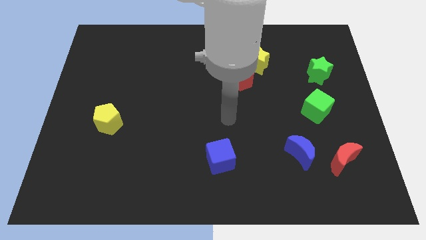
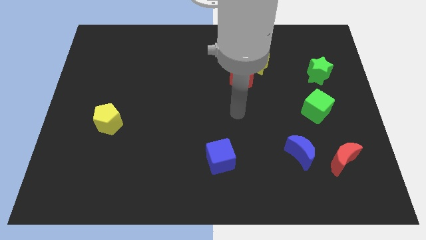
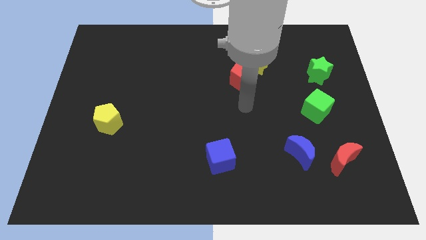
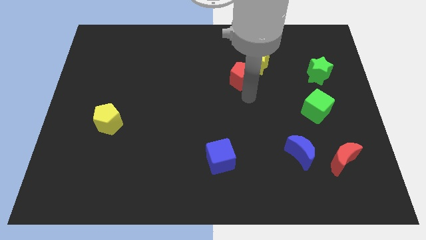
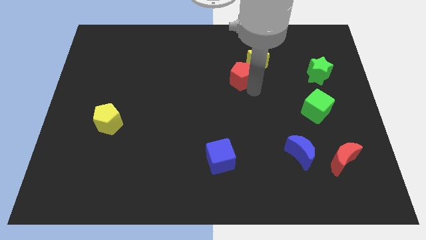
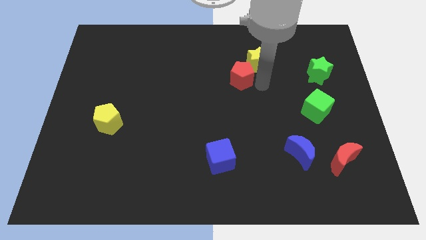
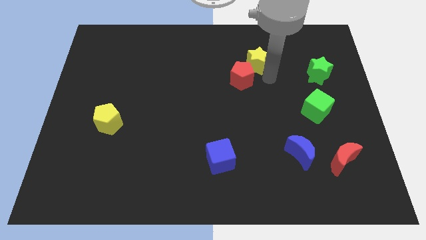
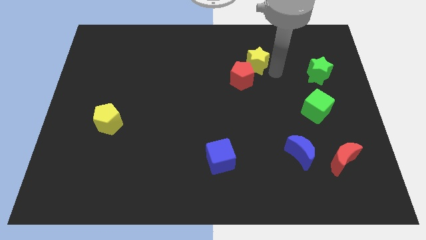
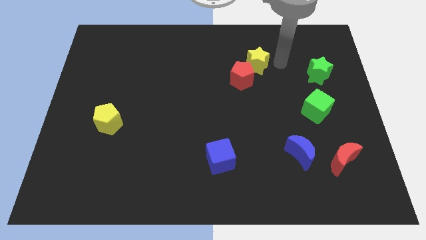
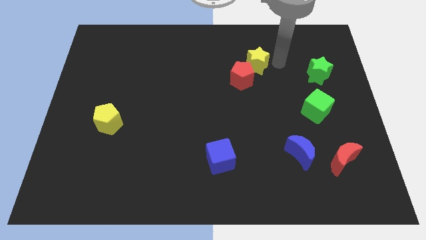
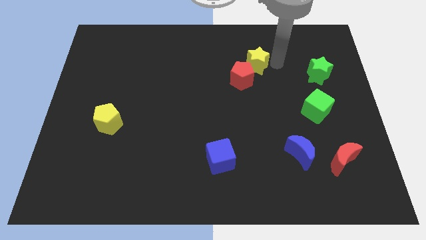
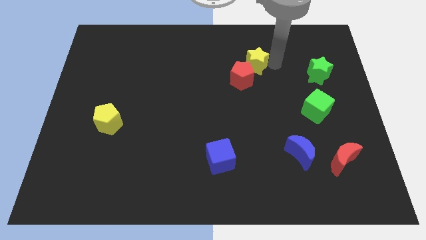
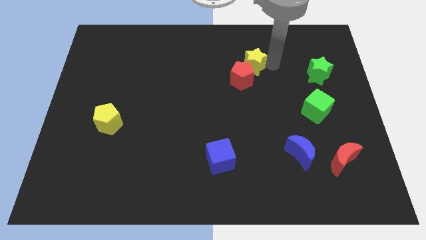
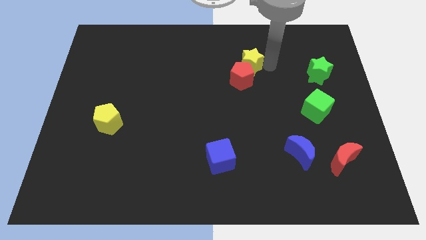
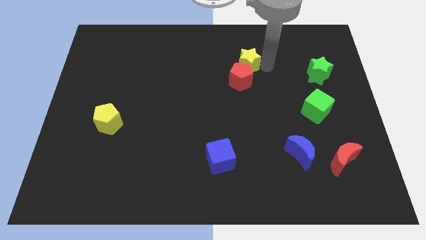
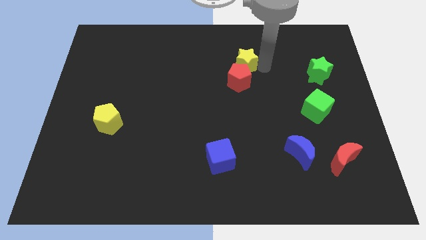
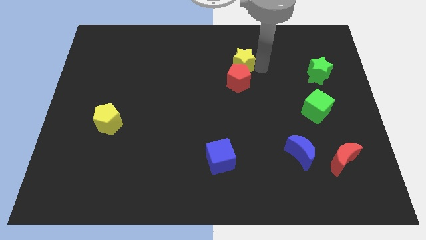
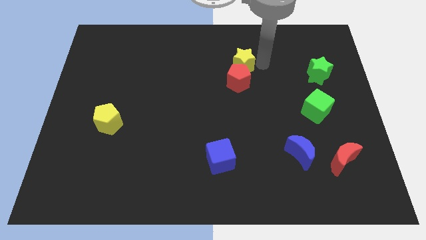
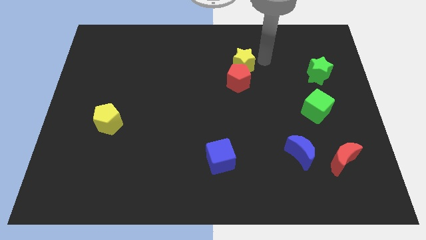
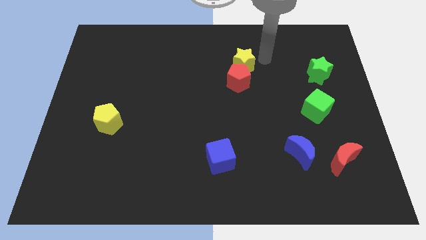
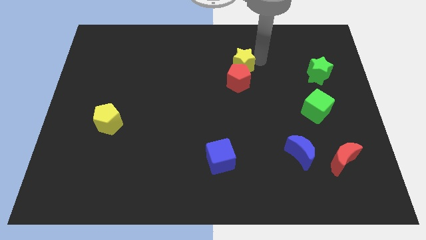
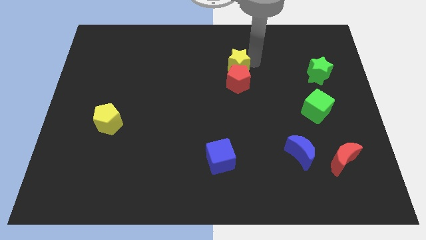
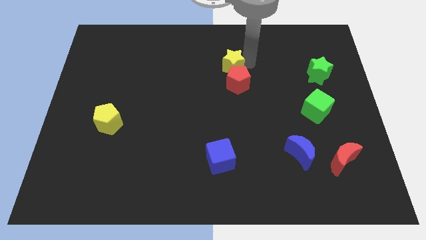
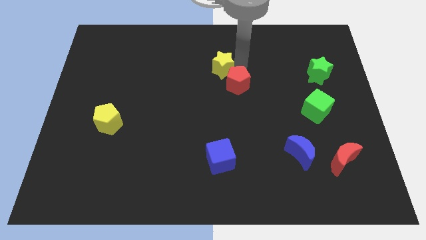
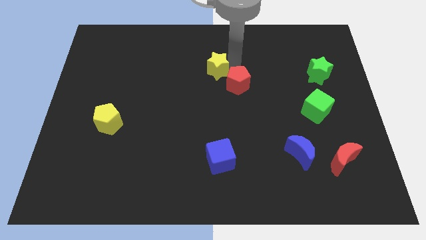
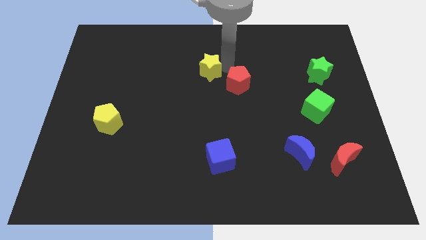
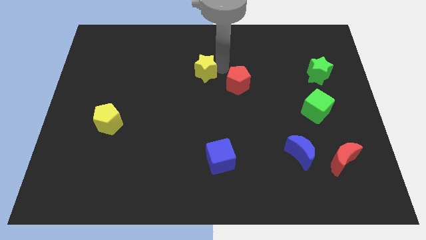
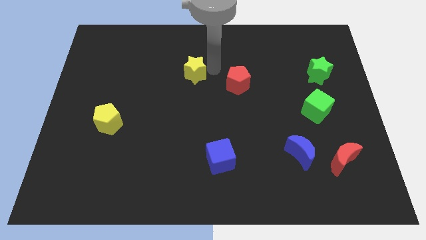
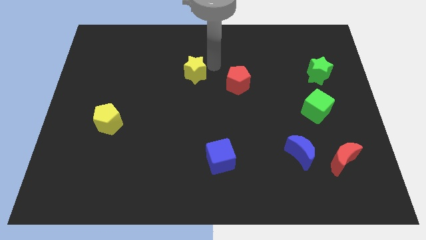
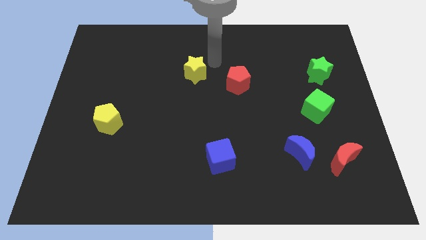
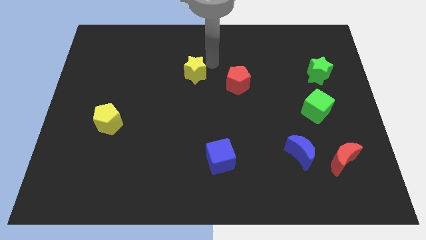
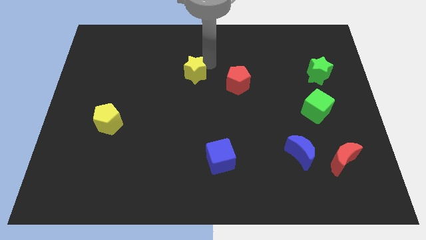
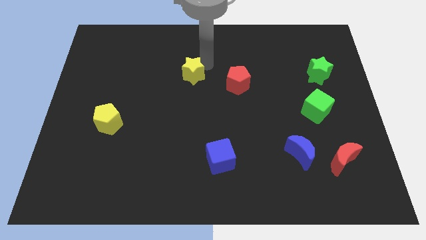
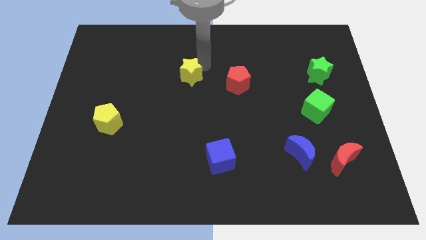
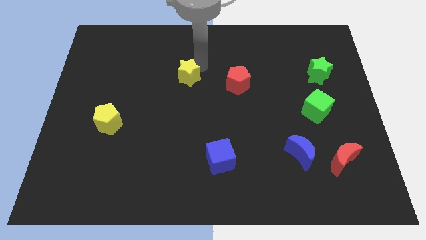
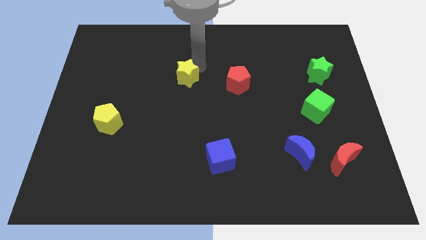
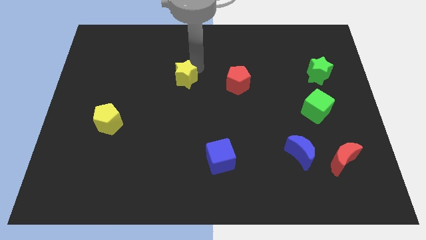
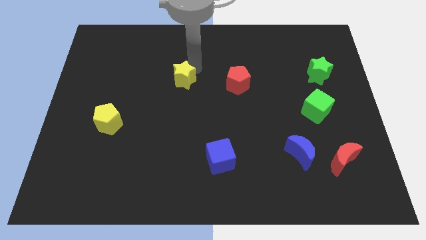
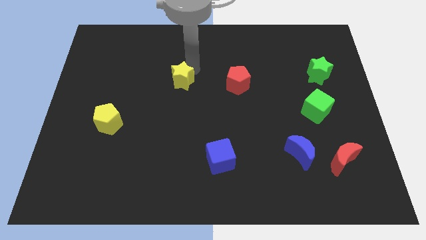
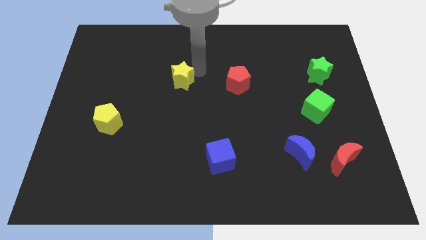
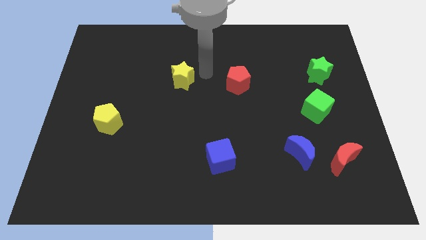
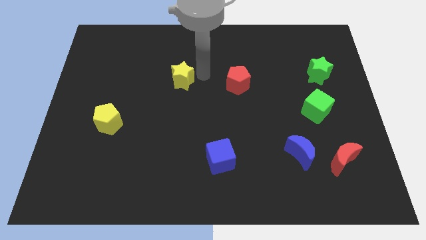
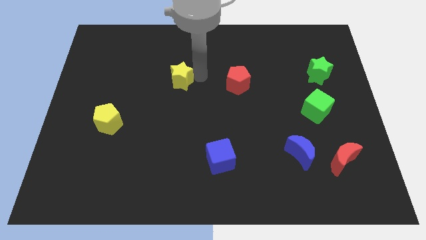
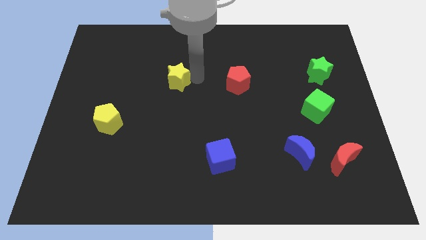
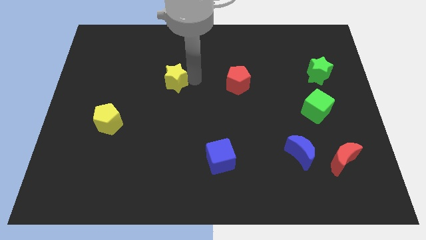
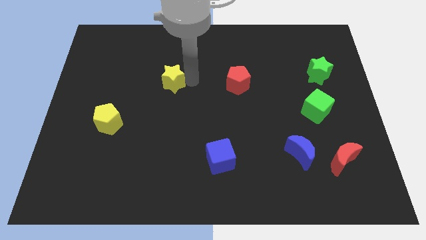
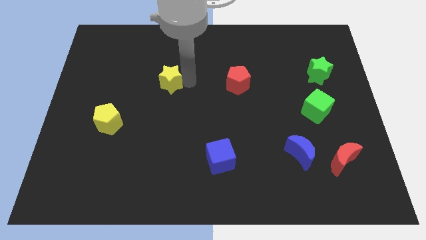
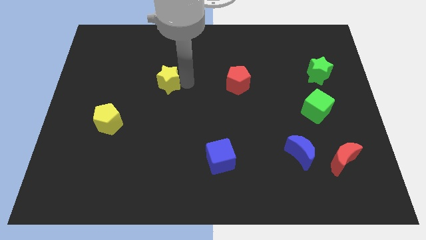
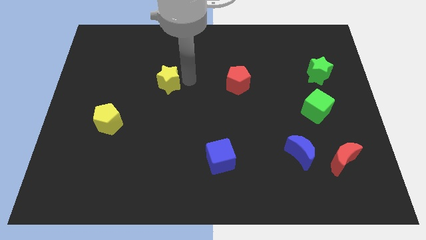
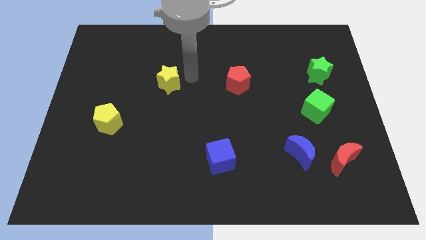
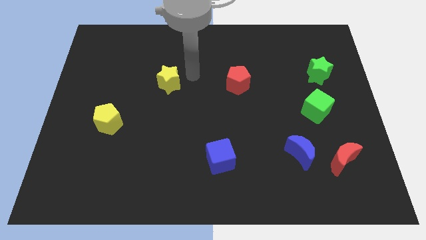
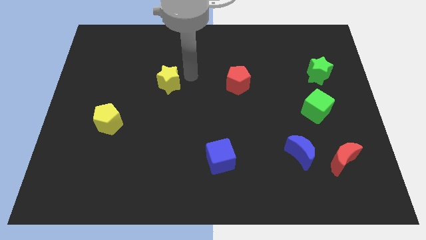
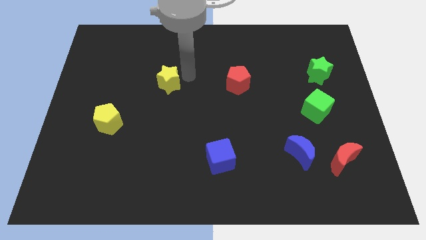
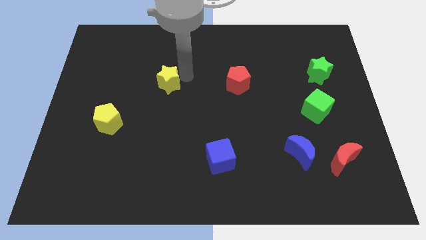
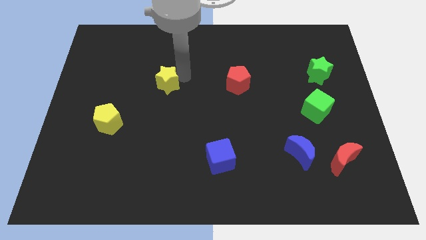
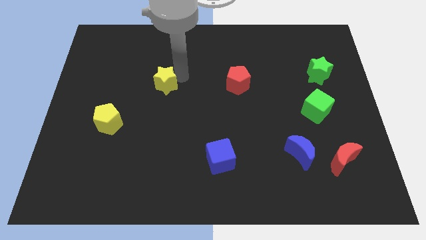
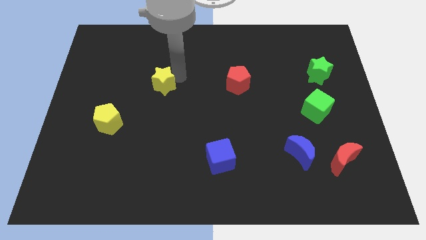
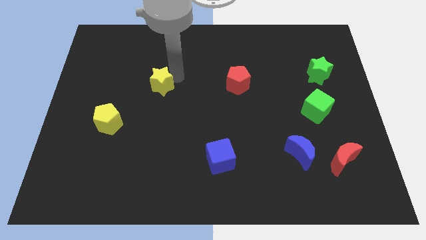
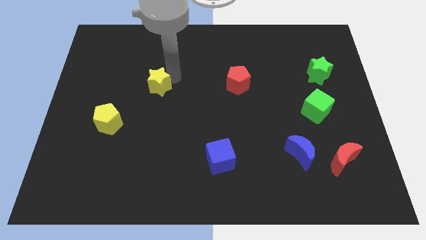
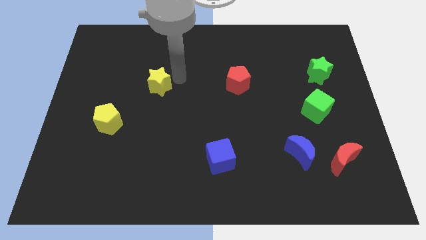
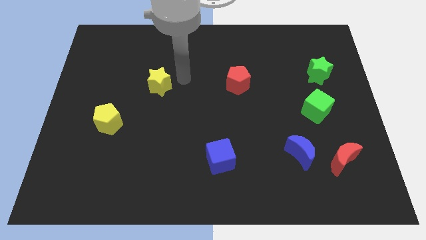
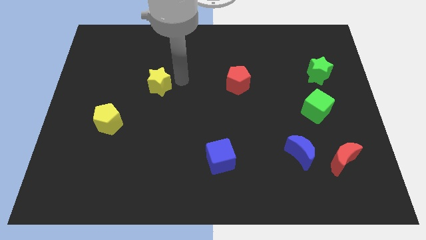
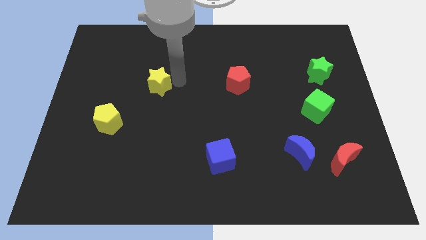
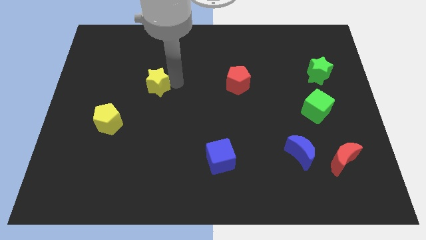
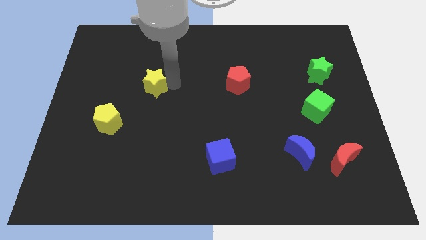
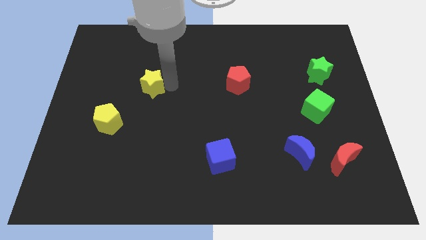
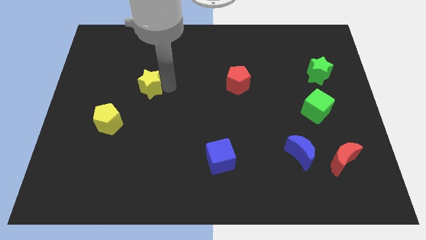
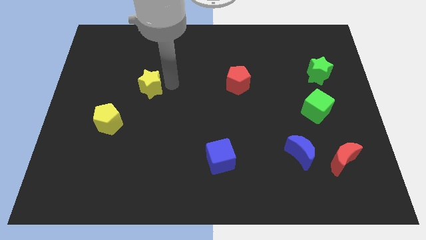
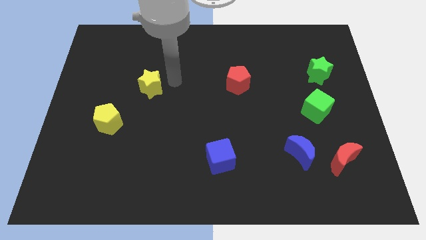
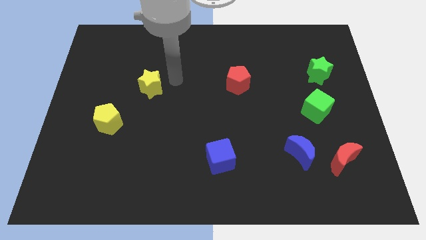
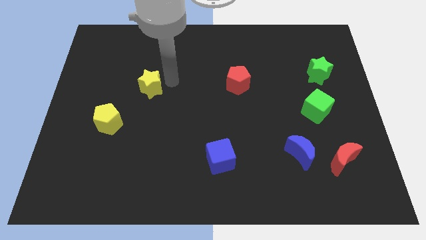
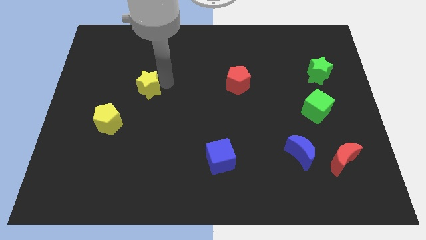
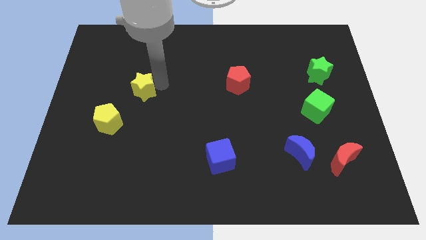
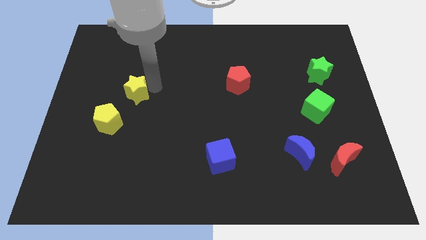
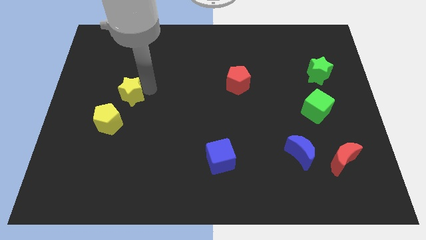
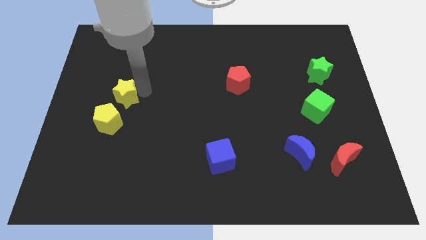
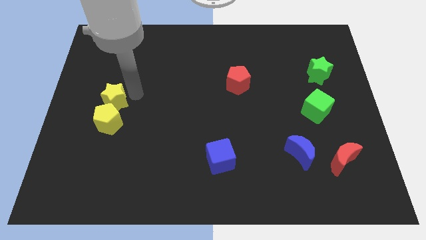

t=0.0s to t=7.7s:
push the yellow star to the top left side of the yellow pentagon

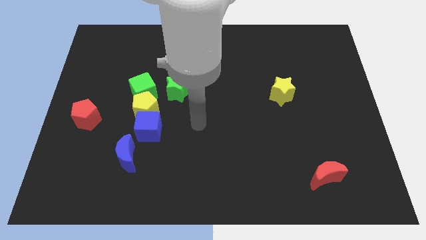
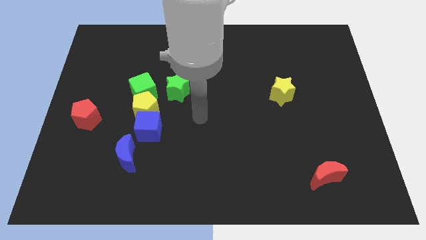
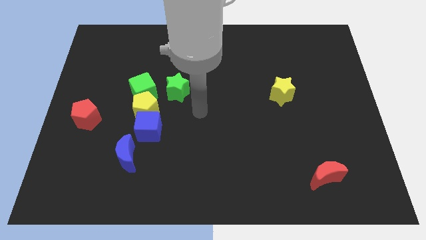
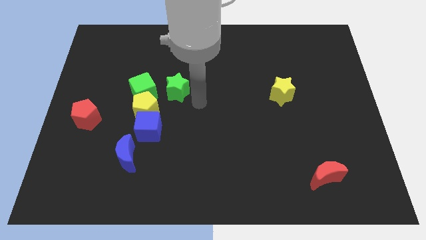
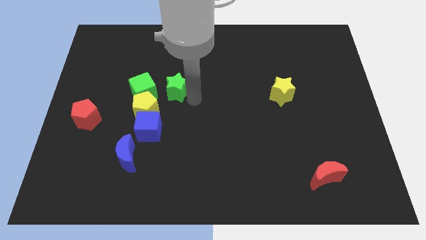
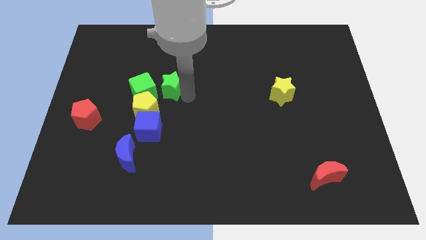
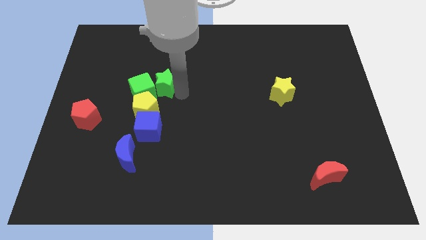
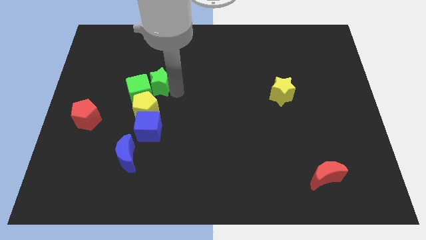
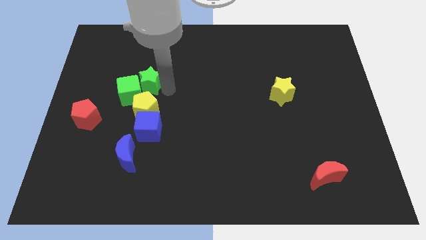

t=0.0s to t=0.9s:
push the green star to the top side of the green cube
